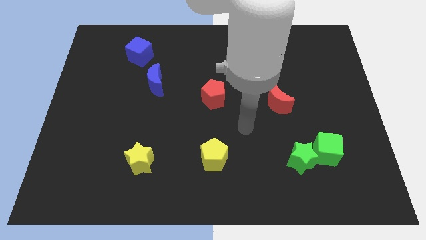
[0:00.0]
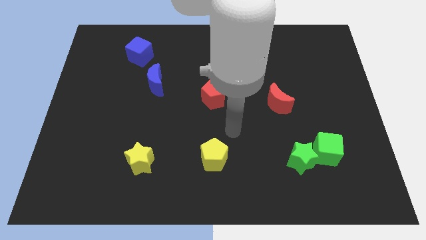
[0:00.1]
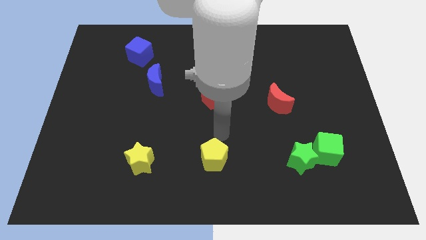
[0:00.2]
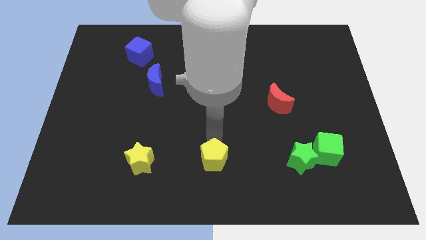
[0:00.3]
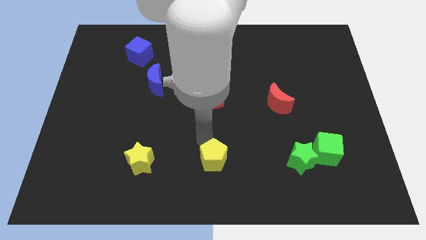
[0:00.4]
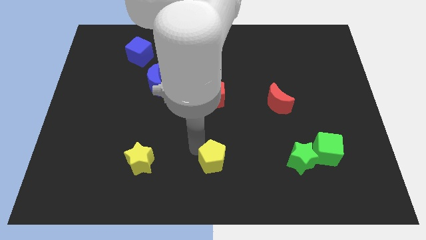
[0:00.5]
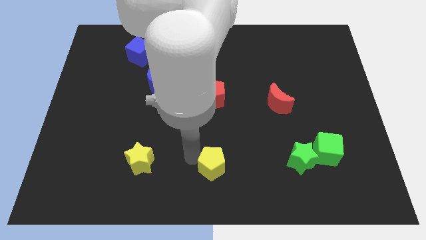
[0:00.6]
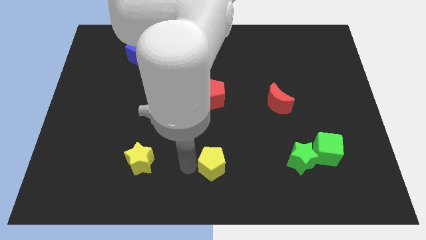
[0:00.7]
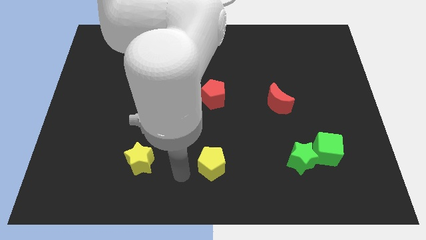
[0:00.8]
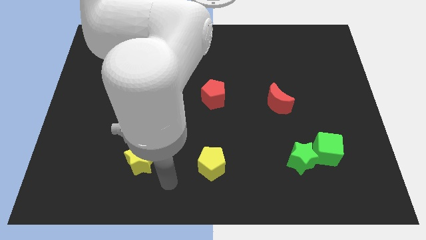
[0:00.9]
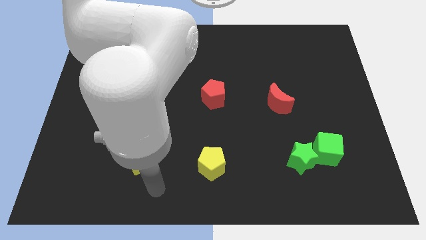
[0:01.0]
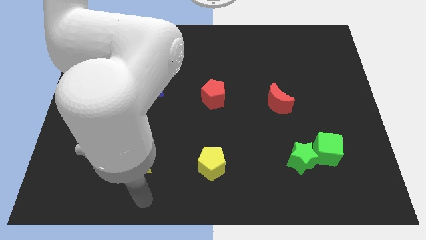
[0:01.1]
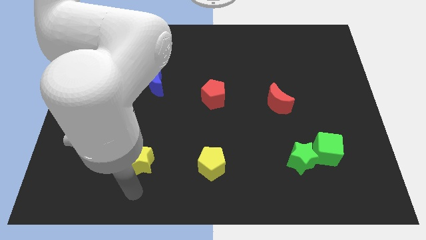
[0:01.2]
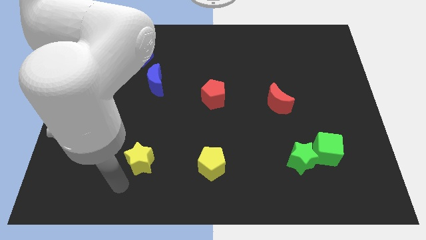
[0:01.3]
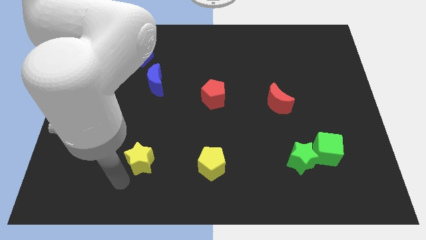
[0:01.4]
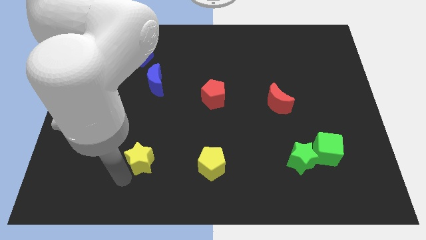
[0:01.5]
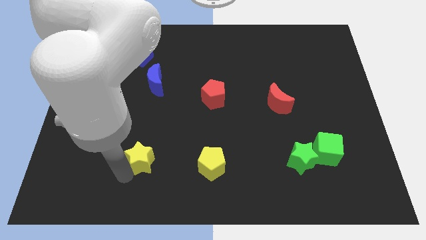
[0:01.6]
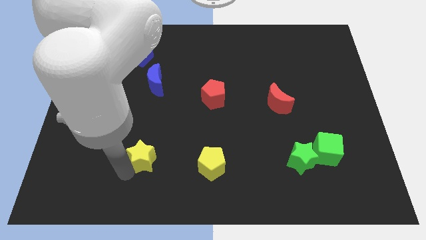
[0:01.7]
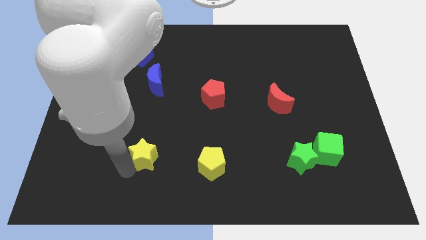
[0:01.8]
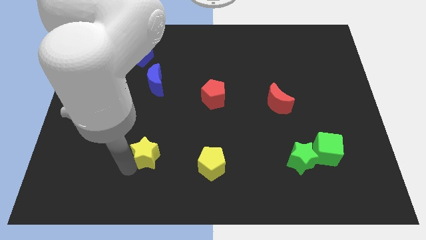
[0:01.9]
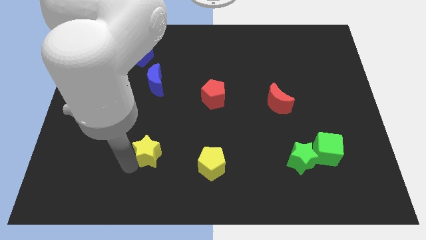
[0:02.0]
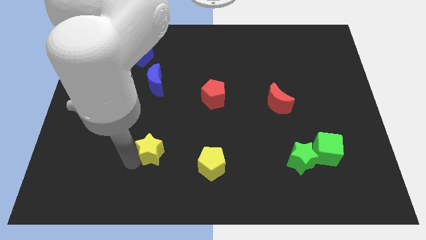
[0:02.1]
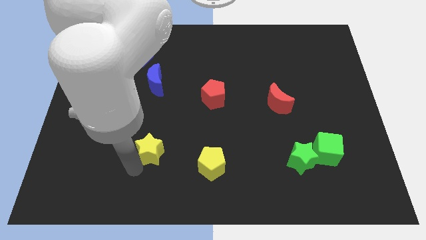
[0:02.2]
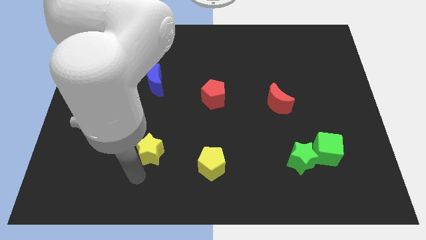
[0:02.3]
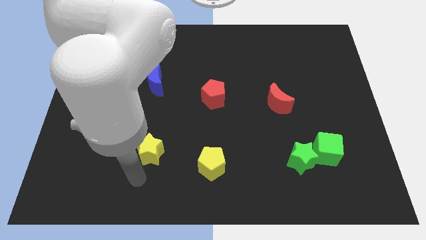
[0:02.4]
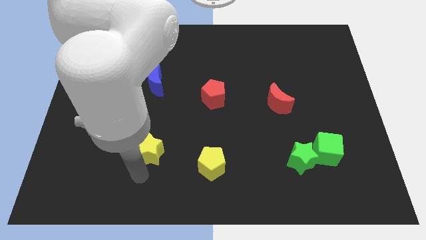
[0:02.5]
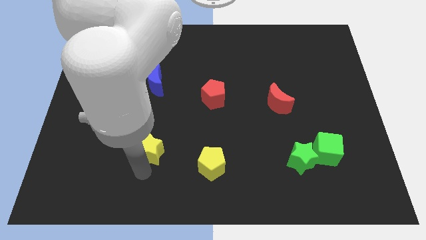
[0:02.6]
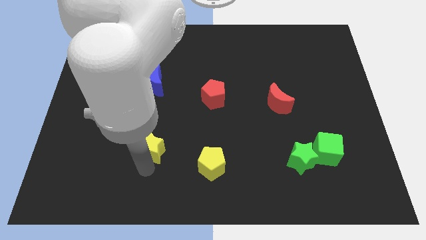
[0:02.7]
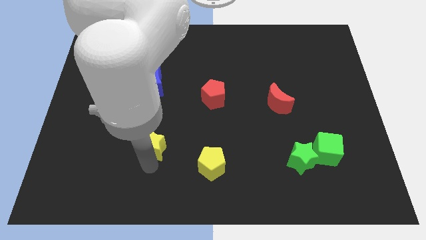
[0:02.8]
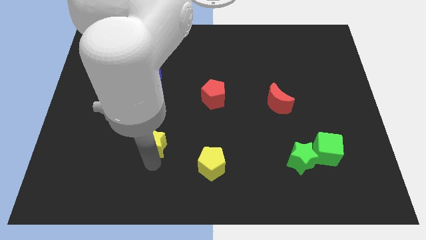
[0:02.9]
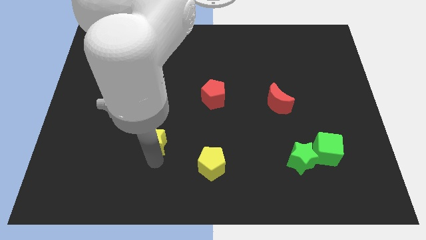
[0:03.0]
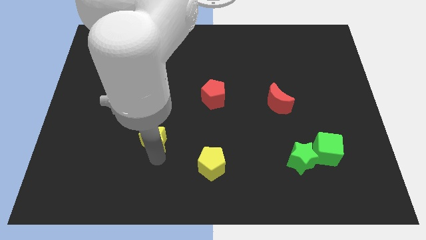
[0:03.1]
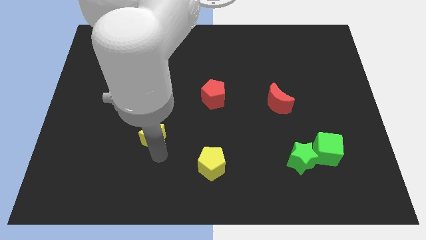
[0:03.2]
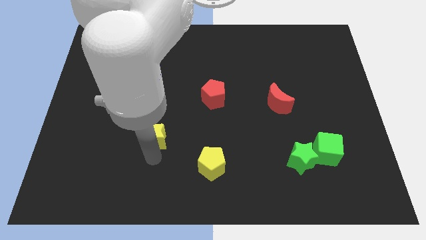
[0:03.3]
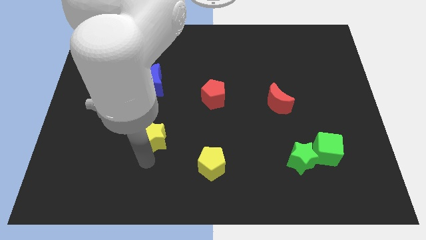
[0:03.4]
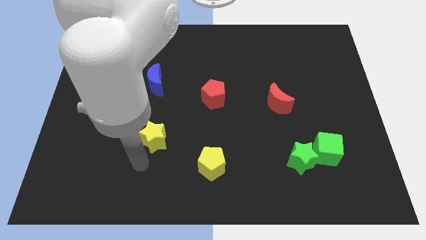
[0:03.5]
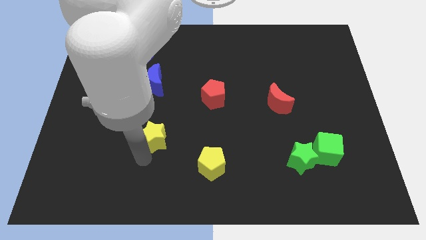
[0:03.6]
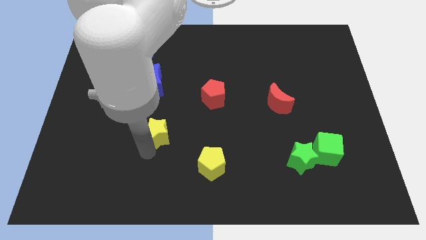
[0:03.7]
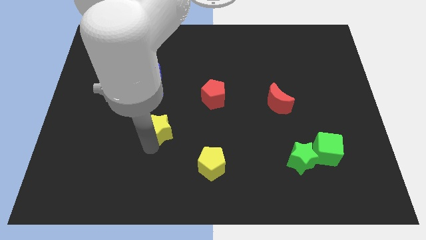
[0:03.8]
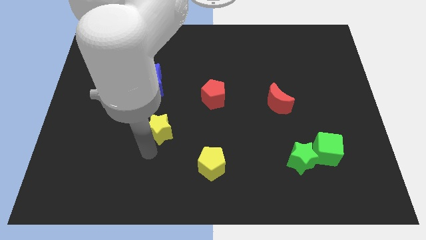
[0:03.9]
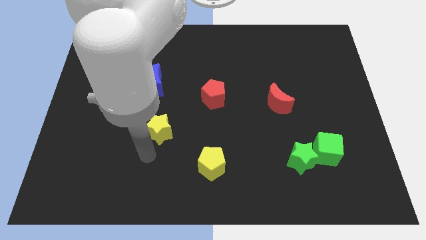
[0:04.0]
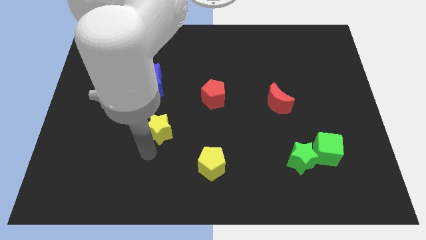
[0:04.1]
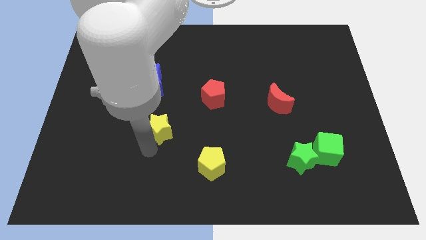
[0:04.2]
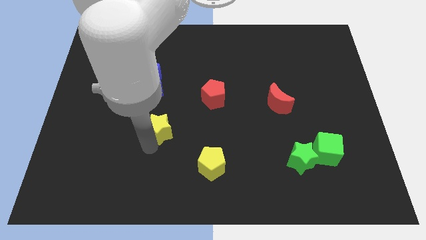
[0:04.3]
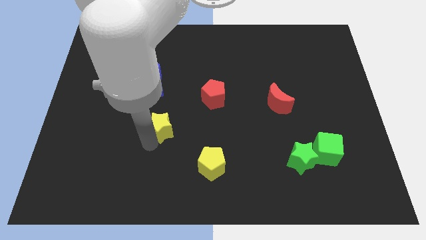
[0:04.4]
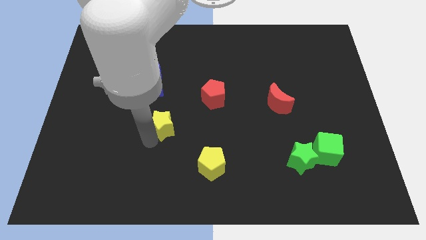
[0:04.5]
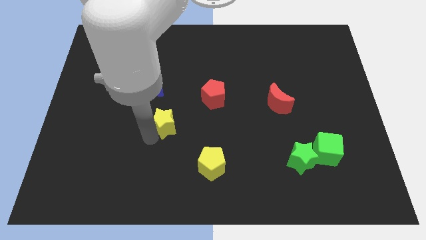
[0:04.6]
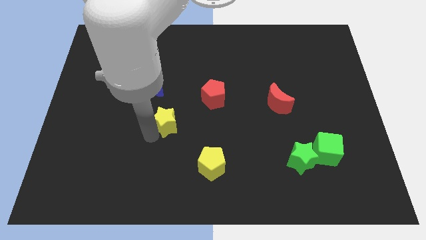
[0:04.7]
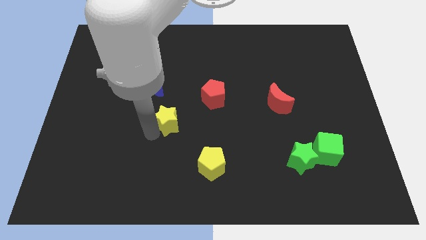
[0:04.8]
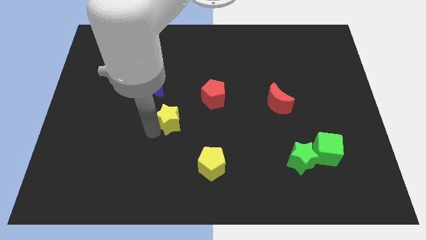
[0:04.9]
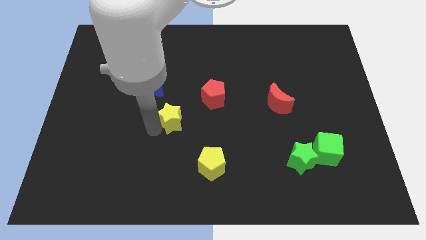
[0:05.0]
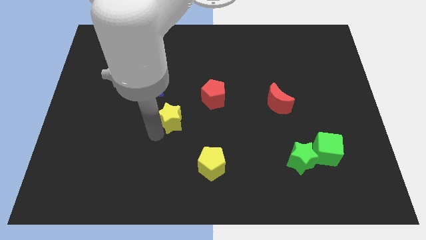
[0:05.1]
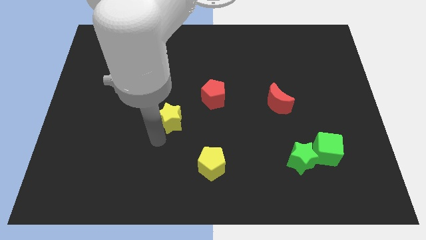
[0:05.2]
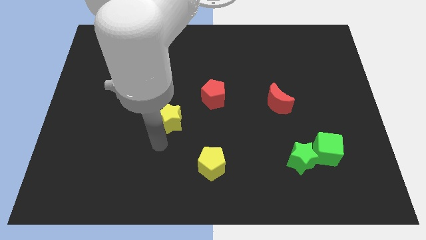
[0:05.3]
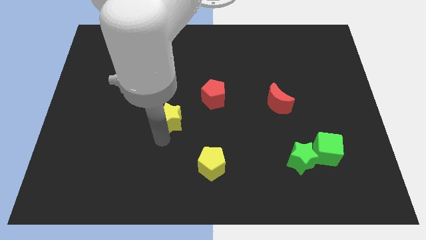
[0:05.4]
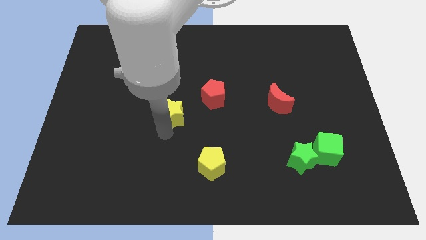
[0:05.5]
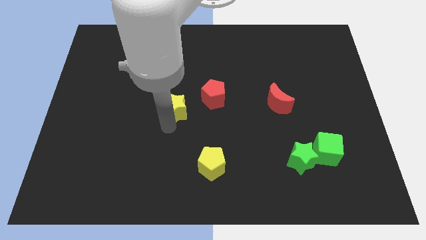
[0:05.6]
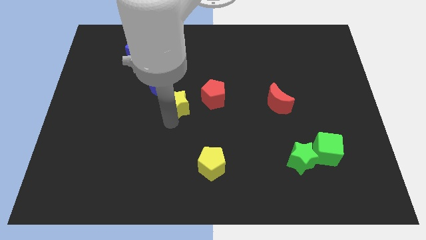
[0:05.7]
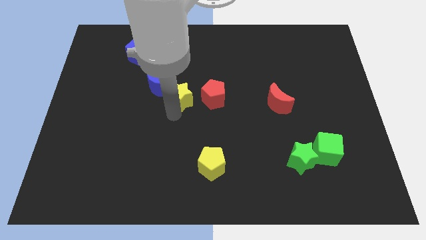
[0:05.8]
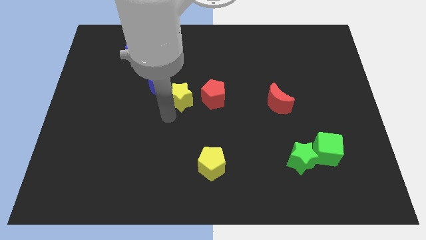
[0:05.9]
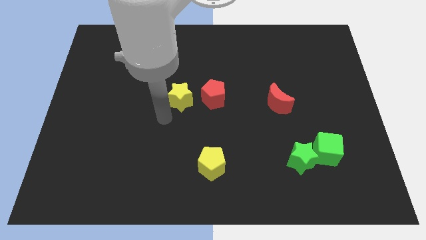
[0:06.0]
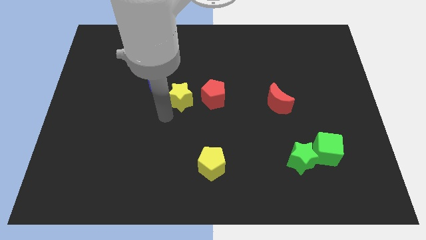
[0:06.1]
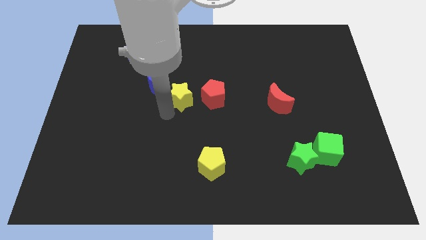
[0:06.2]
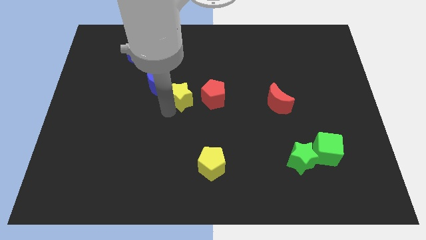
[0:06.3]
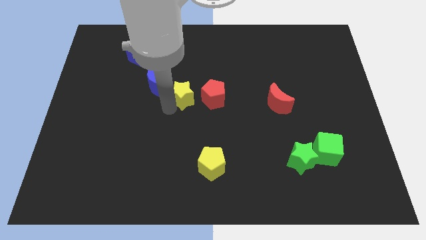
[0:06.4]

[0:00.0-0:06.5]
put the yellow star just right of the blue moon

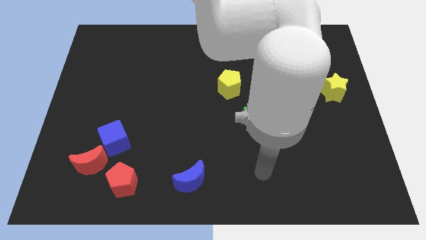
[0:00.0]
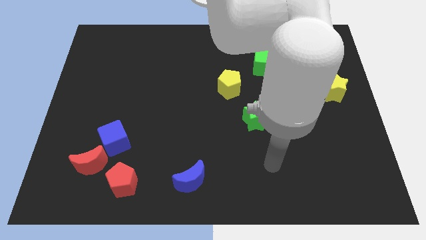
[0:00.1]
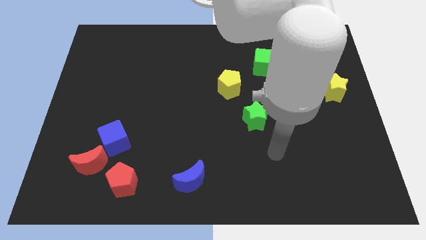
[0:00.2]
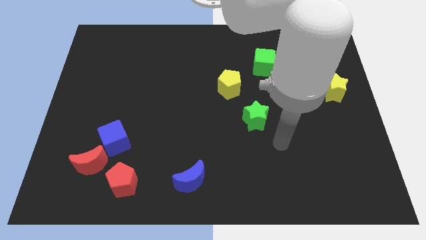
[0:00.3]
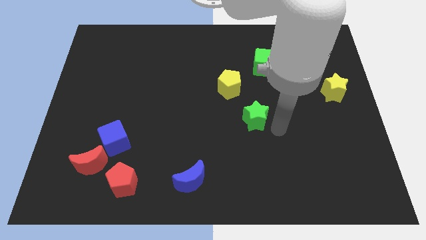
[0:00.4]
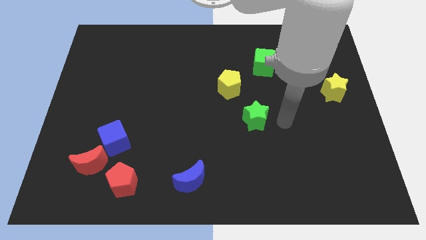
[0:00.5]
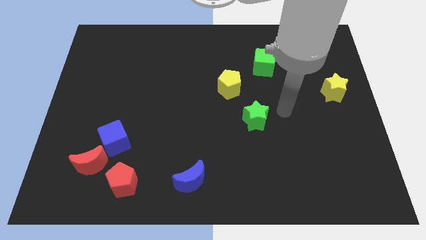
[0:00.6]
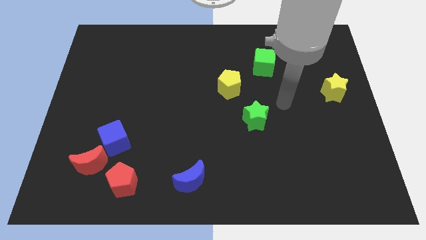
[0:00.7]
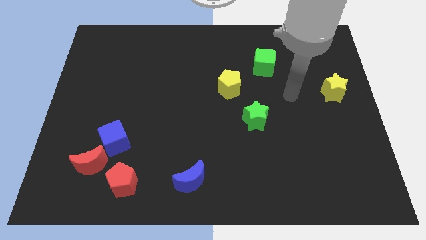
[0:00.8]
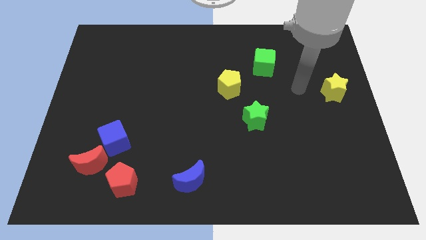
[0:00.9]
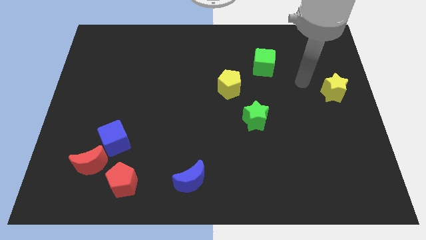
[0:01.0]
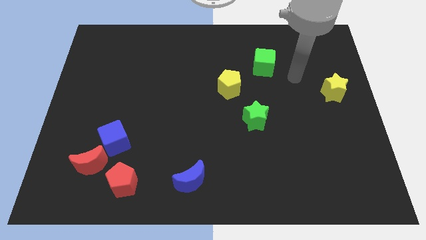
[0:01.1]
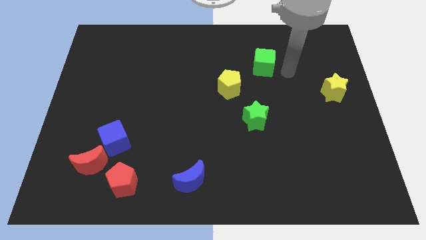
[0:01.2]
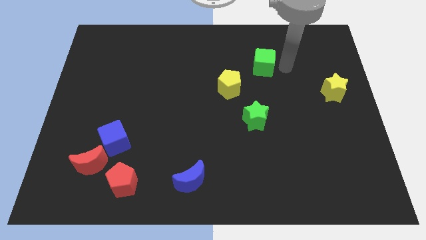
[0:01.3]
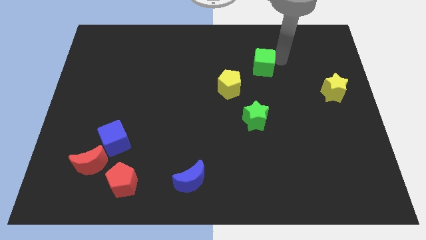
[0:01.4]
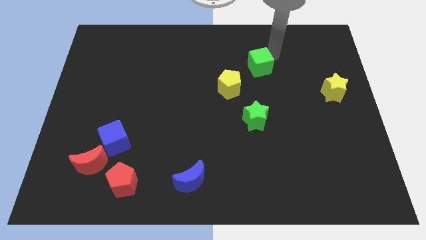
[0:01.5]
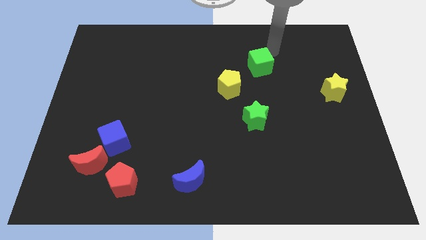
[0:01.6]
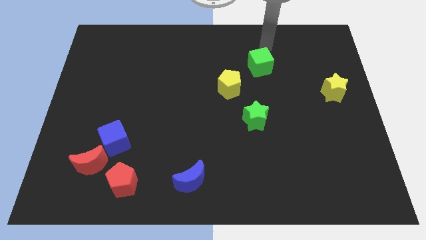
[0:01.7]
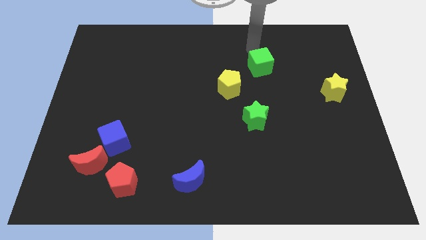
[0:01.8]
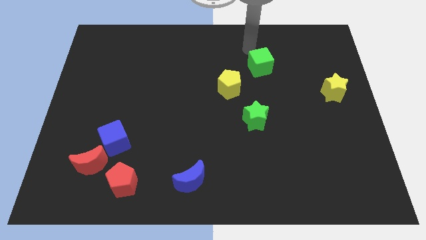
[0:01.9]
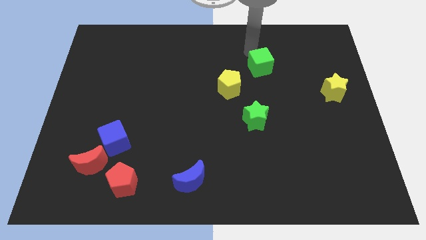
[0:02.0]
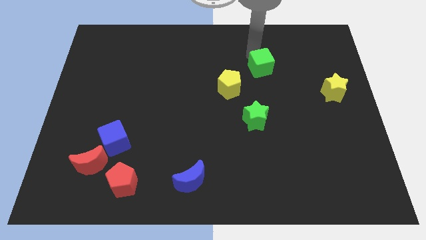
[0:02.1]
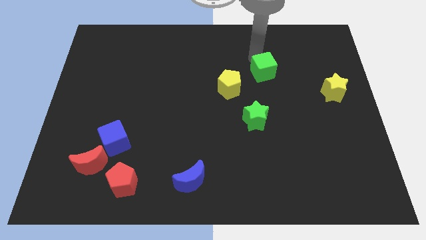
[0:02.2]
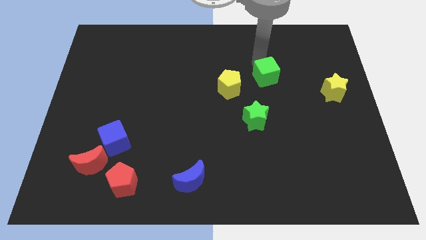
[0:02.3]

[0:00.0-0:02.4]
move the green cube to the right side of the yellow pentagon
